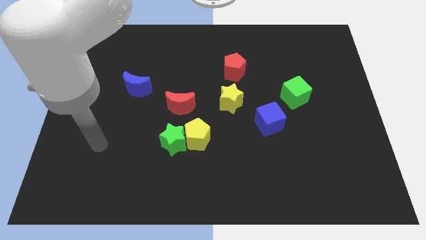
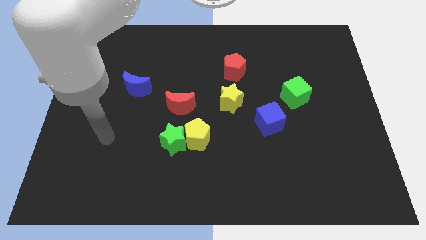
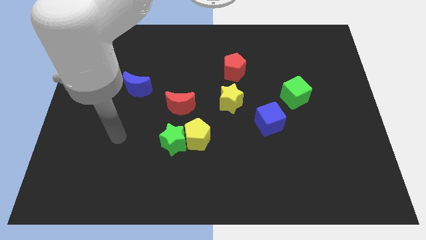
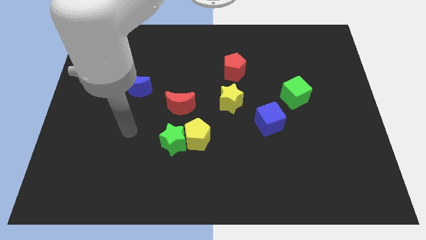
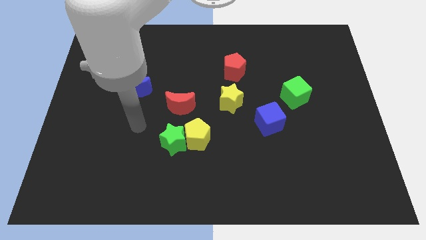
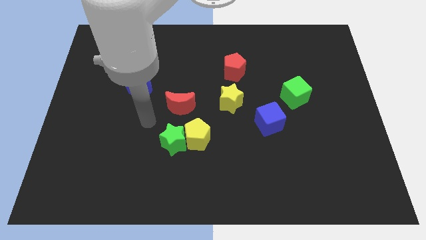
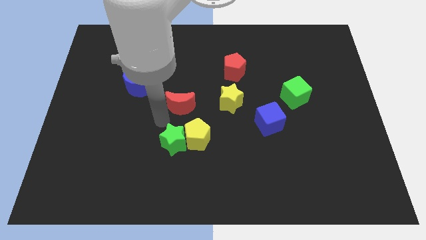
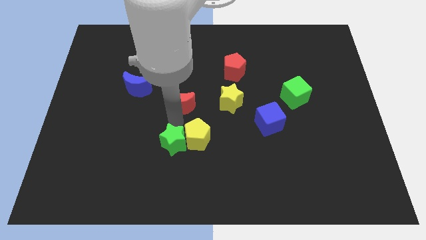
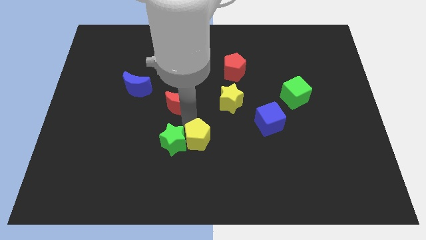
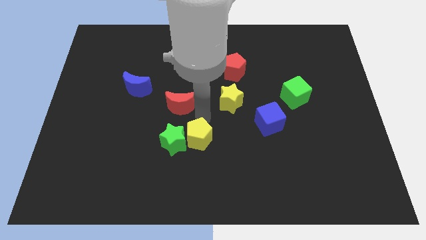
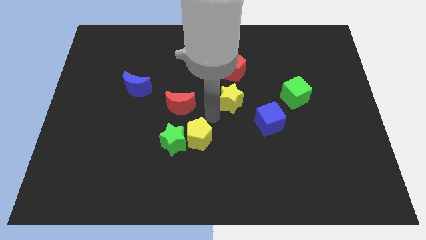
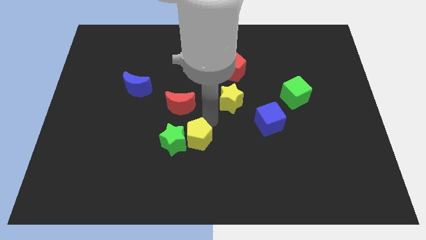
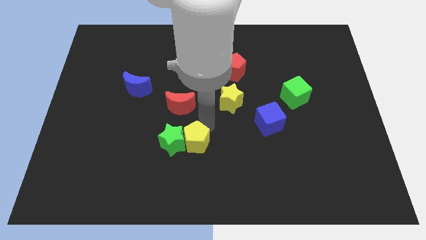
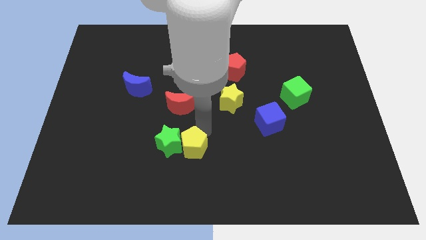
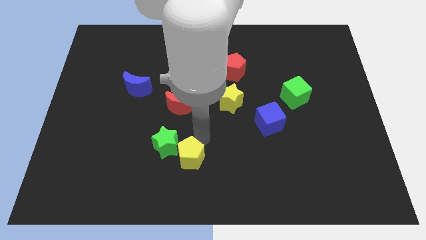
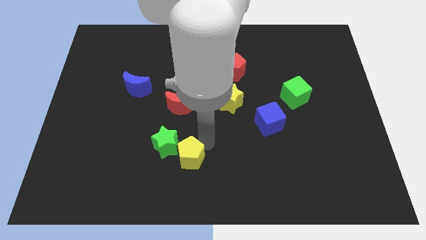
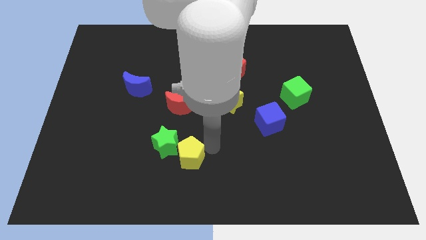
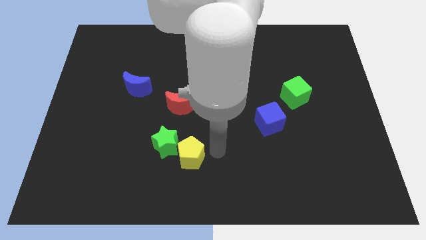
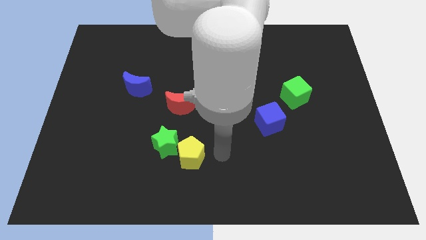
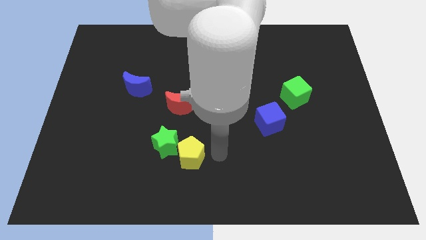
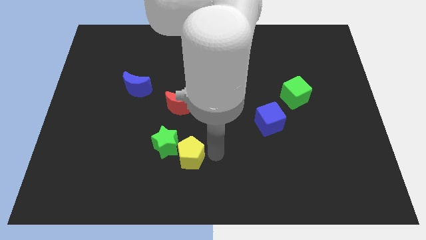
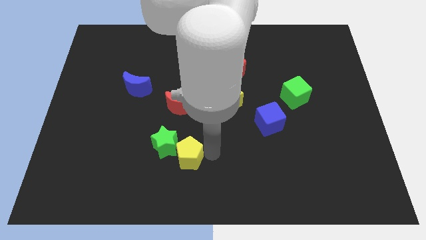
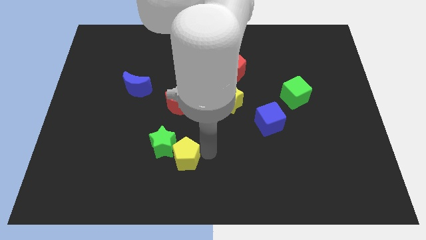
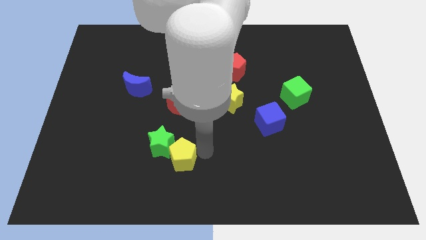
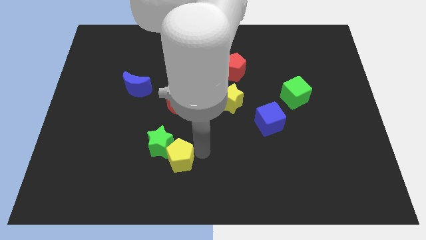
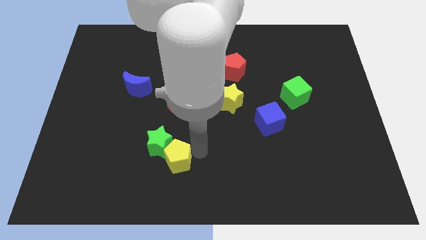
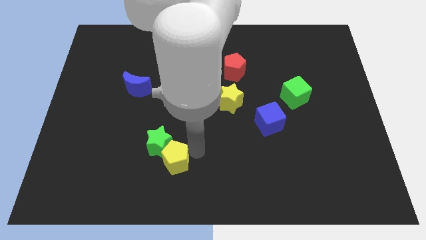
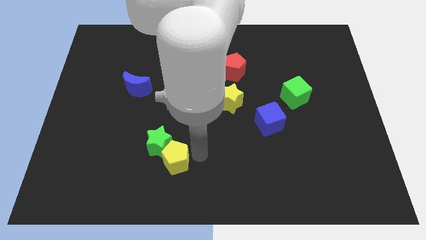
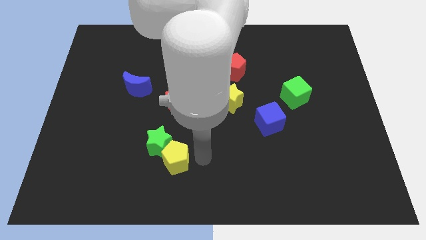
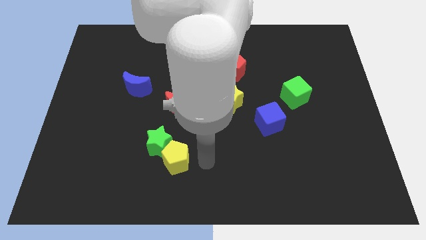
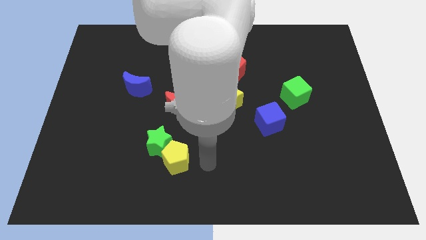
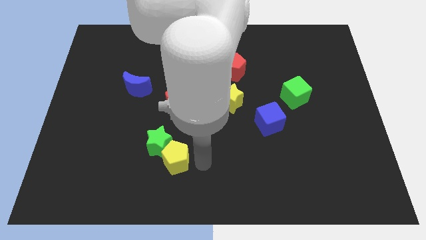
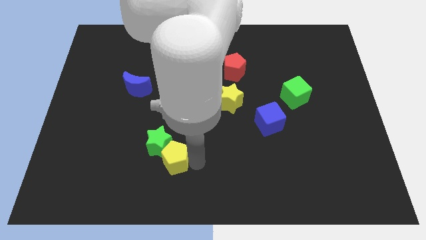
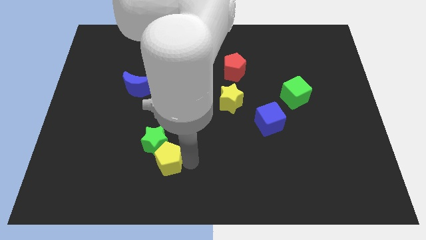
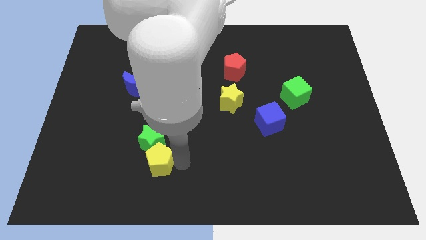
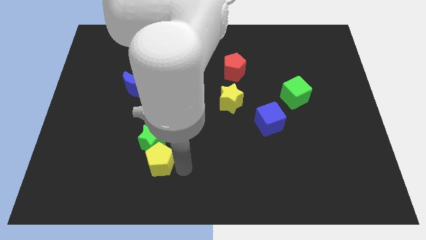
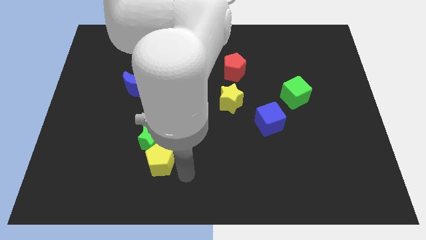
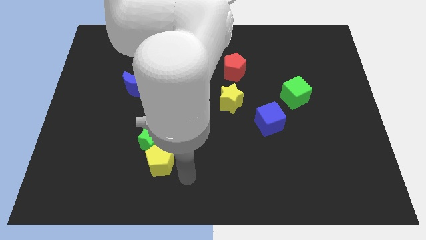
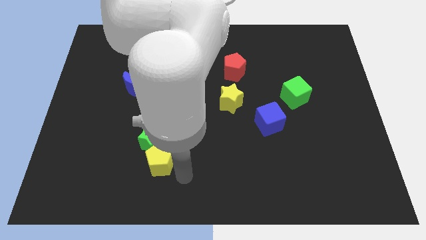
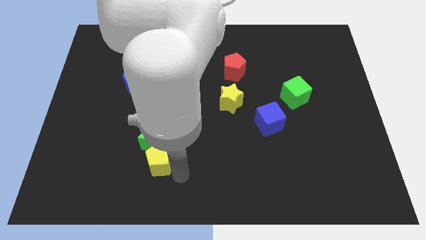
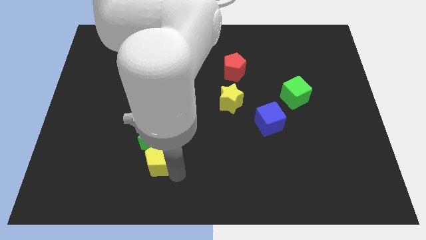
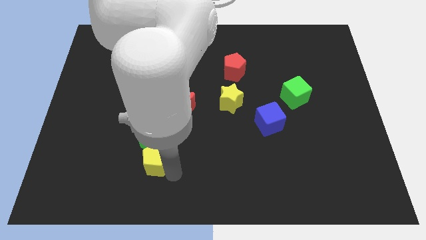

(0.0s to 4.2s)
push the yellow pentagon left a bit

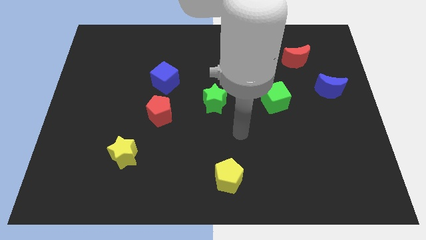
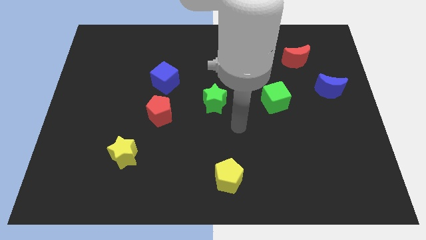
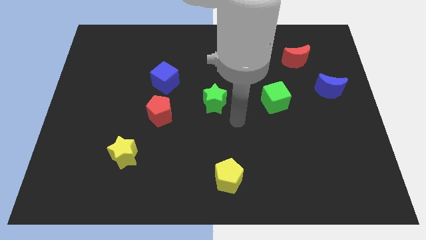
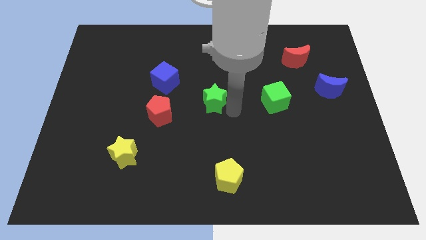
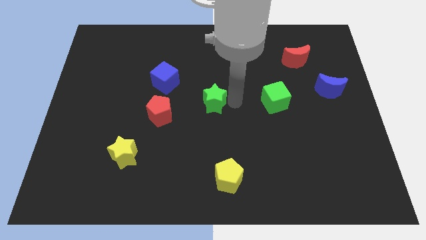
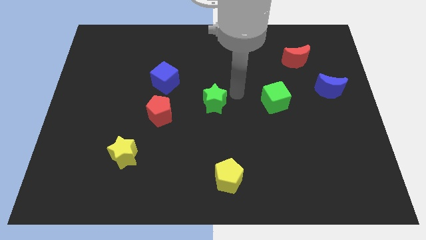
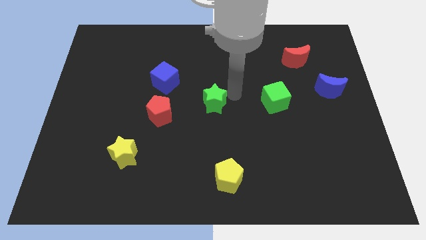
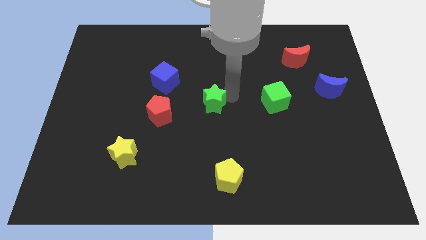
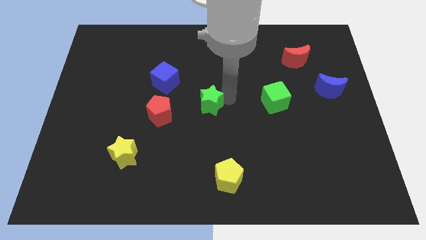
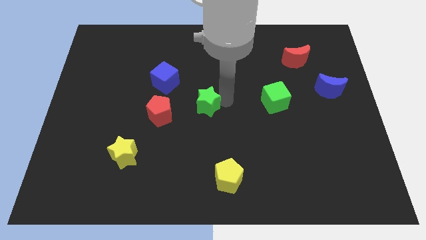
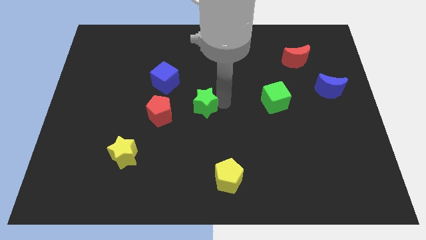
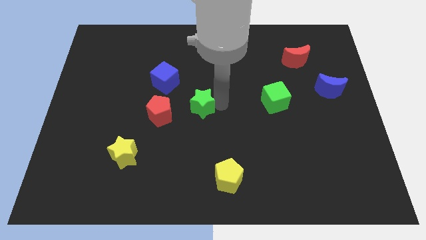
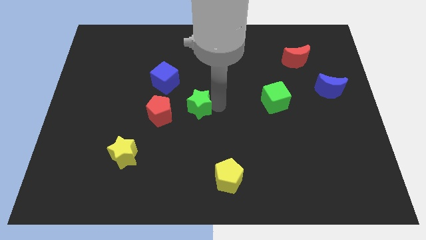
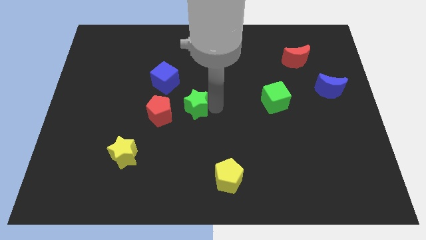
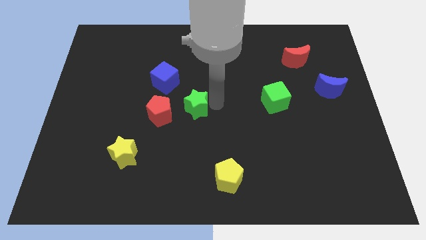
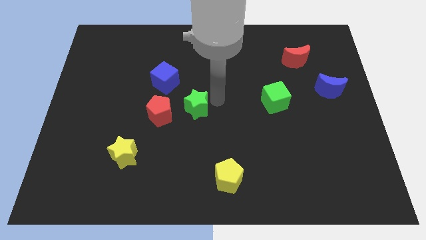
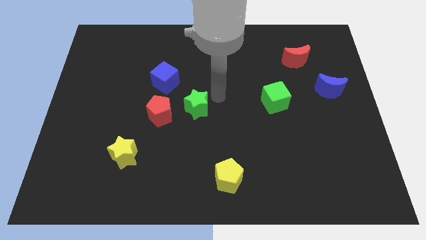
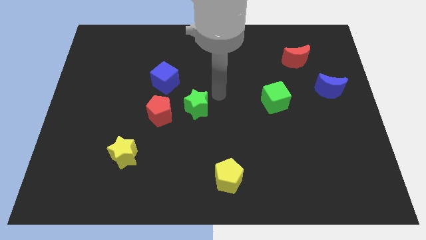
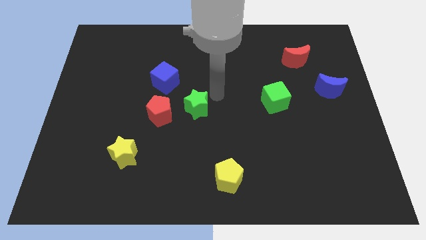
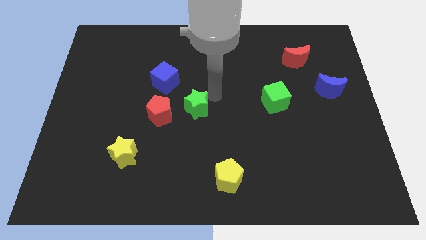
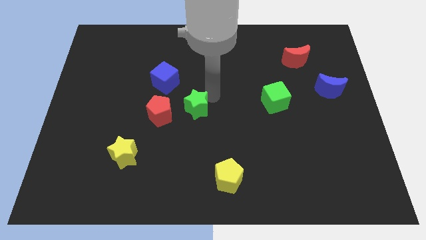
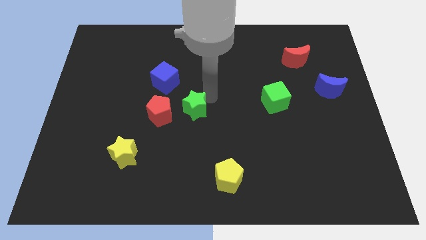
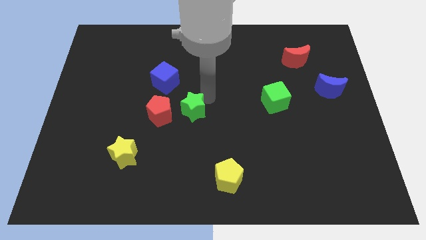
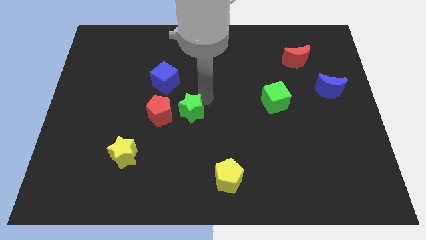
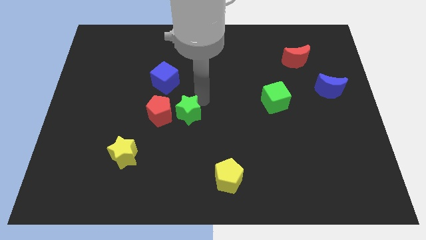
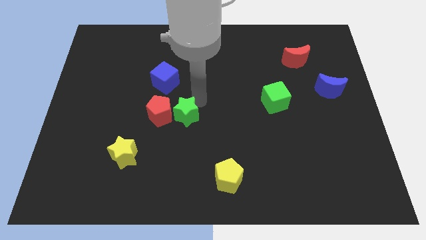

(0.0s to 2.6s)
slide the green star a little bit diagonally downwards and to the left

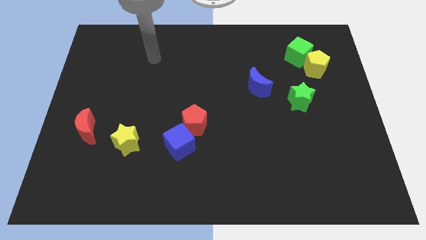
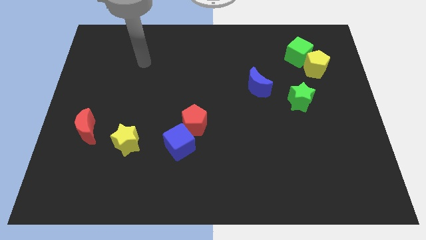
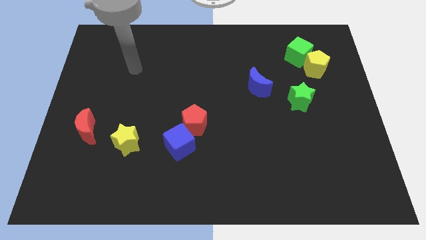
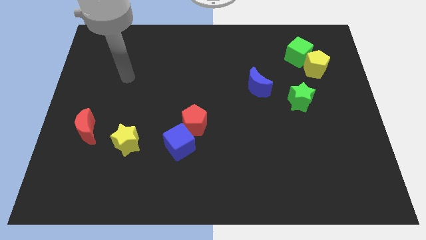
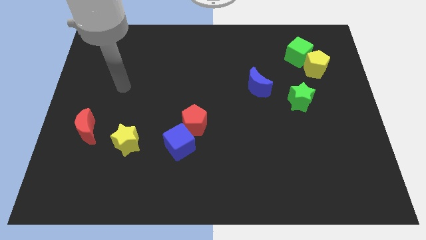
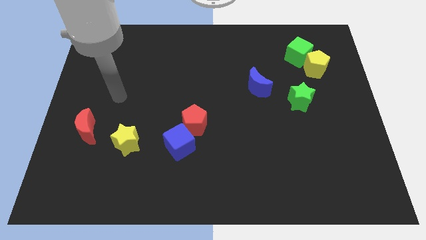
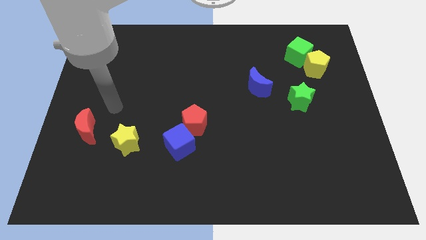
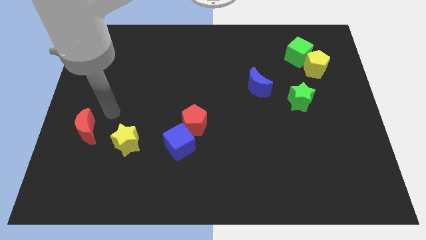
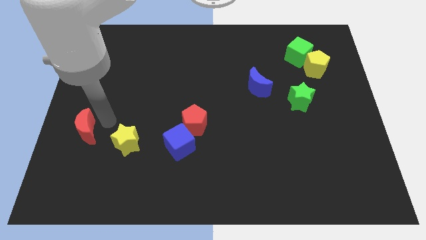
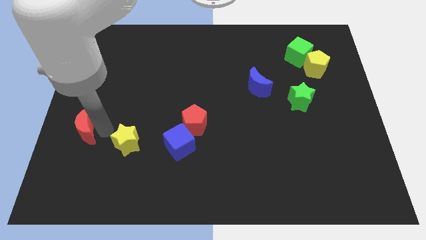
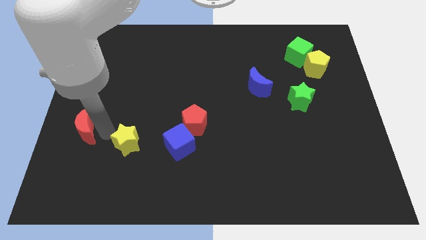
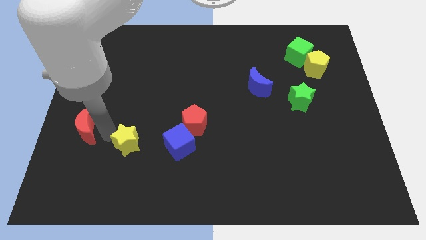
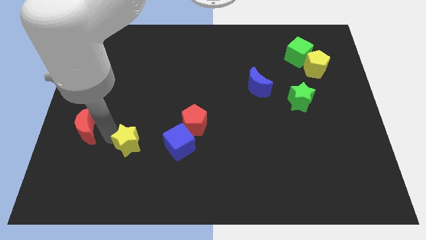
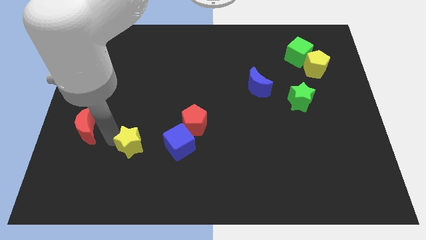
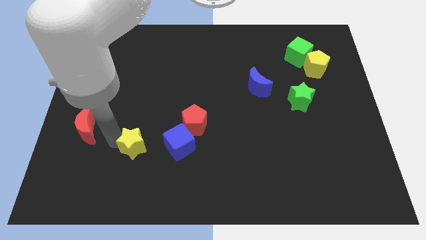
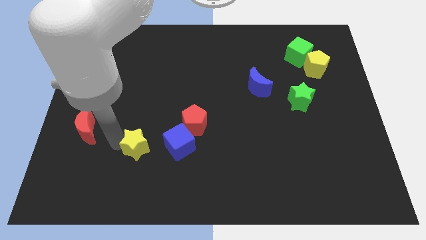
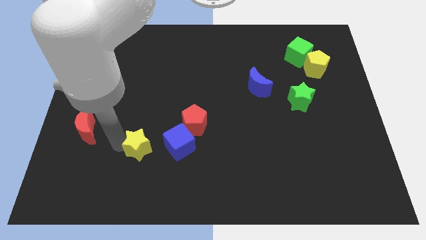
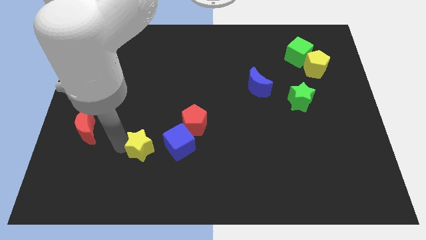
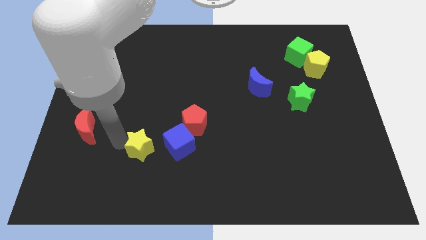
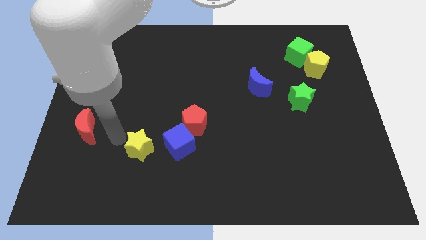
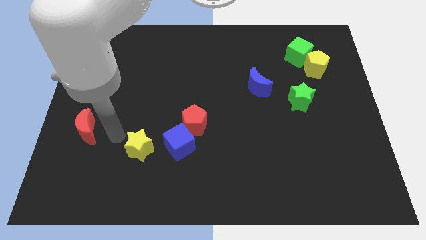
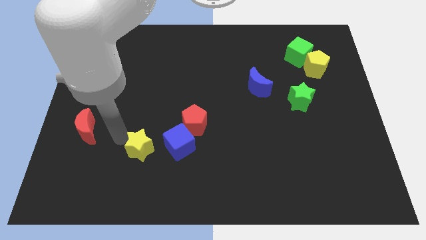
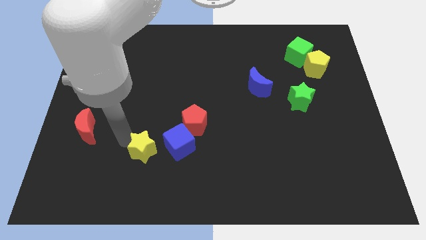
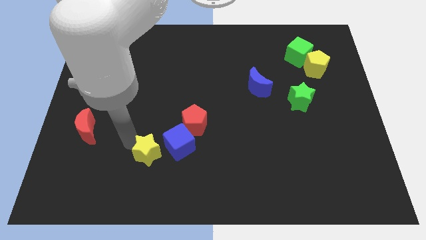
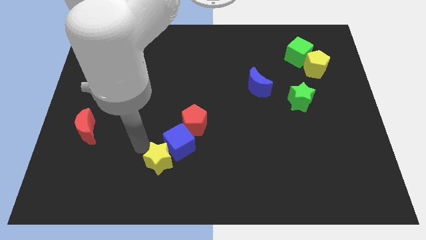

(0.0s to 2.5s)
move the yellow star a little to the right
